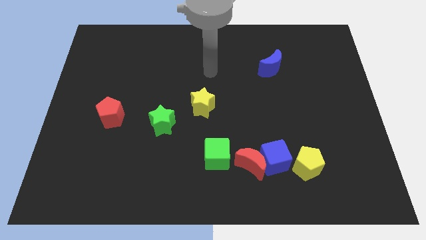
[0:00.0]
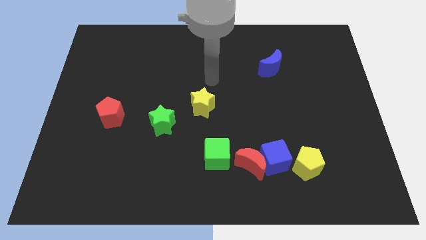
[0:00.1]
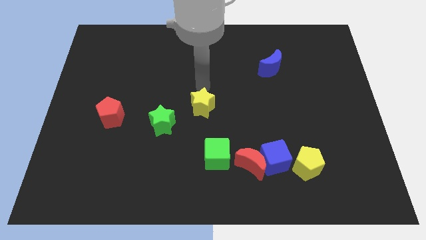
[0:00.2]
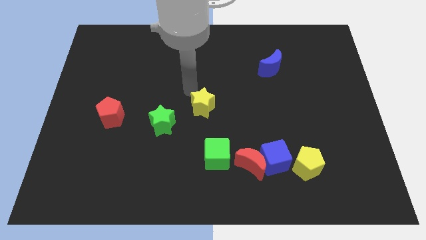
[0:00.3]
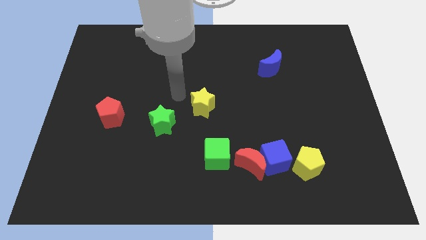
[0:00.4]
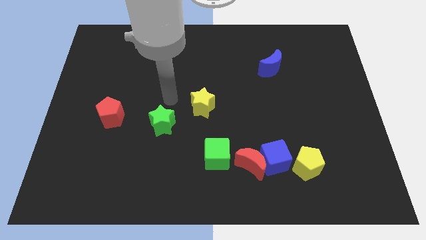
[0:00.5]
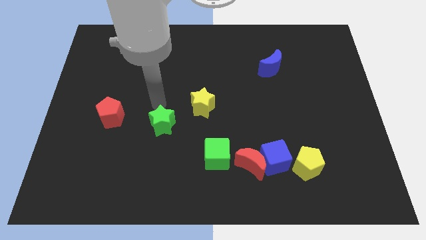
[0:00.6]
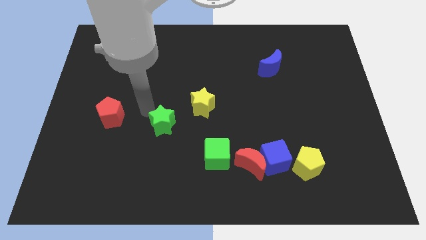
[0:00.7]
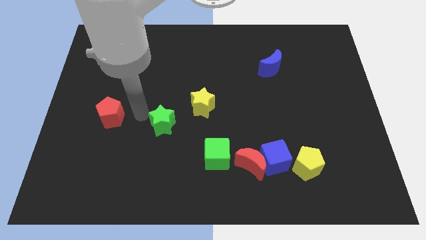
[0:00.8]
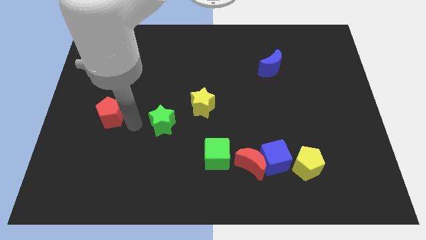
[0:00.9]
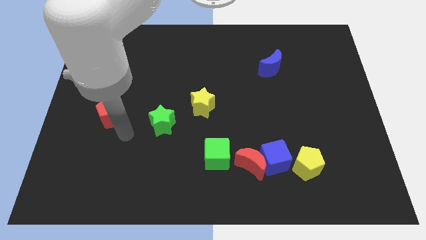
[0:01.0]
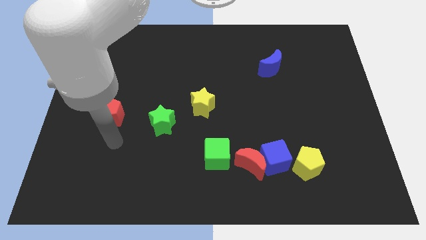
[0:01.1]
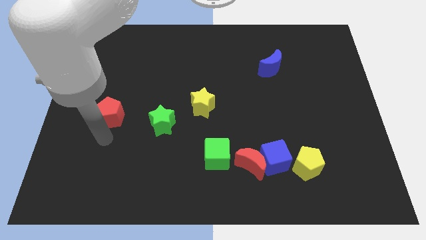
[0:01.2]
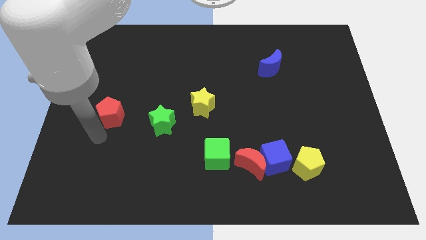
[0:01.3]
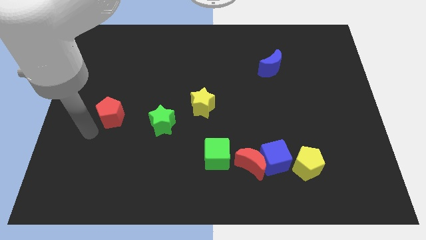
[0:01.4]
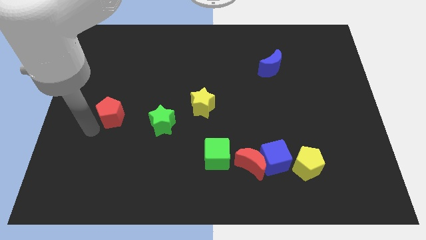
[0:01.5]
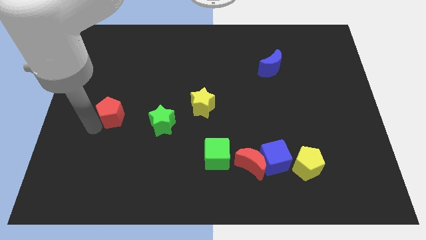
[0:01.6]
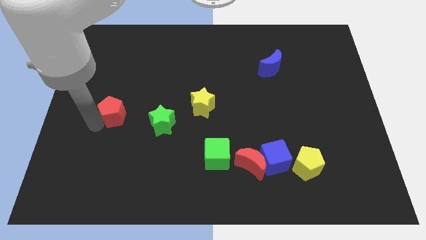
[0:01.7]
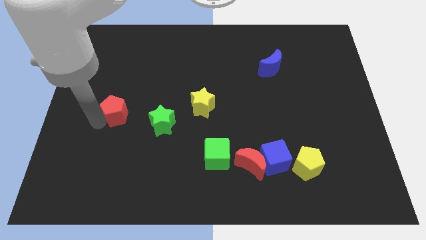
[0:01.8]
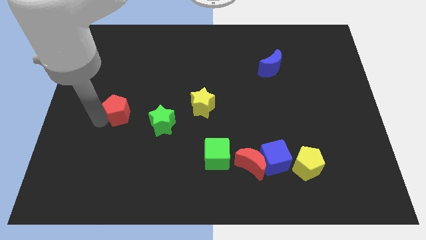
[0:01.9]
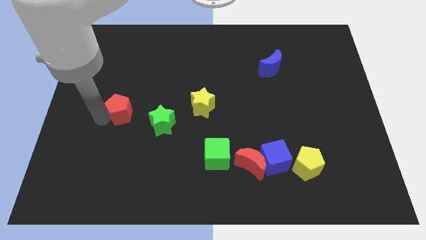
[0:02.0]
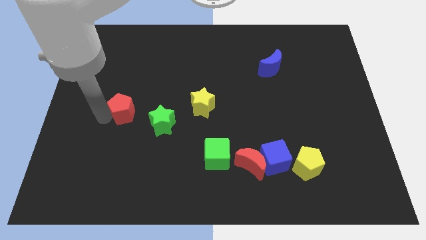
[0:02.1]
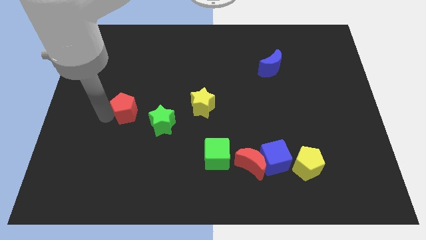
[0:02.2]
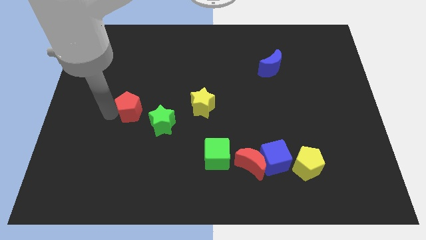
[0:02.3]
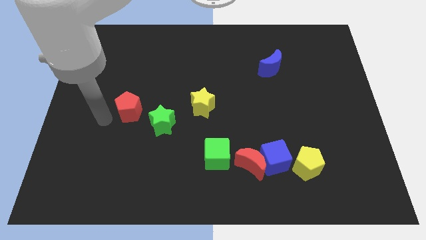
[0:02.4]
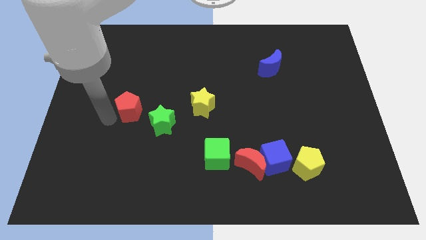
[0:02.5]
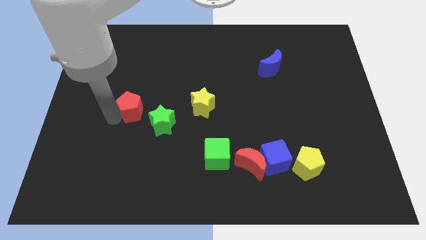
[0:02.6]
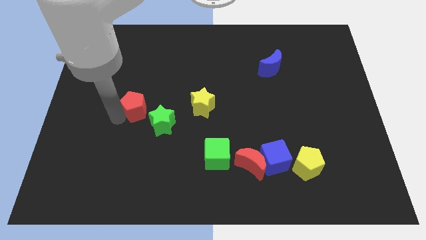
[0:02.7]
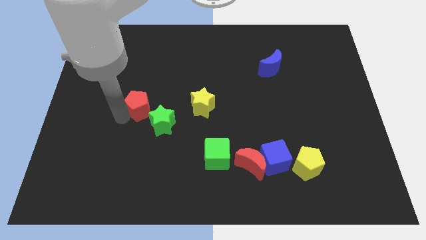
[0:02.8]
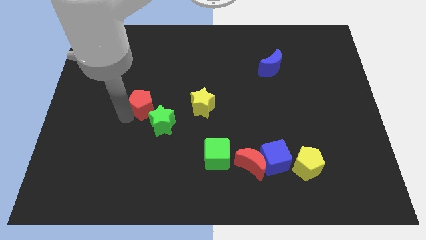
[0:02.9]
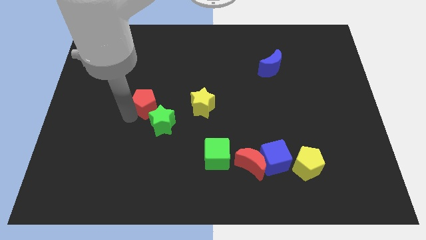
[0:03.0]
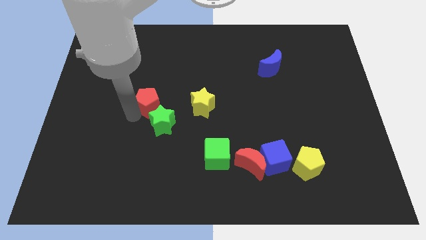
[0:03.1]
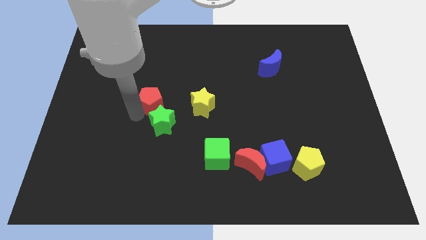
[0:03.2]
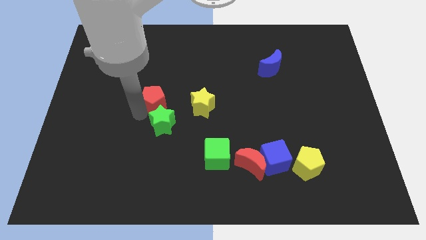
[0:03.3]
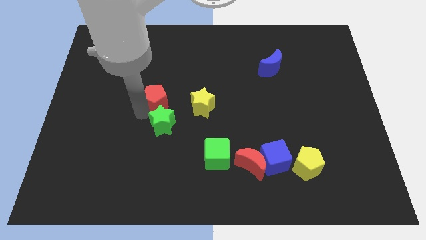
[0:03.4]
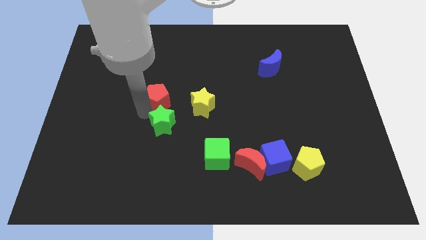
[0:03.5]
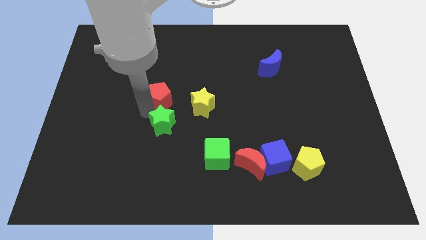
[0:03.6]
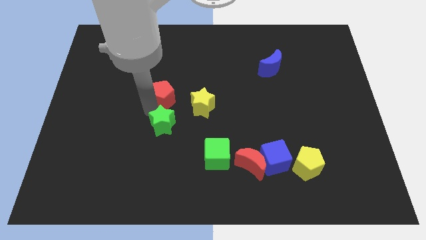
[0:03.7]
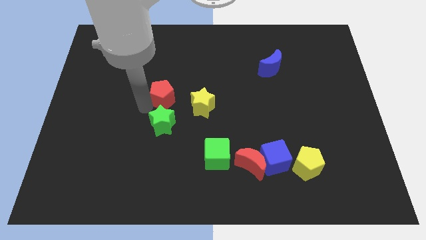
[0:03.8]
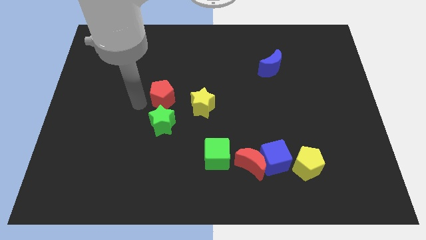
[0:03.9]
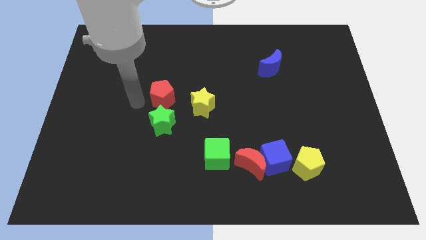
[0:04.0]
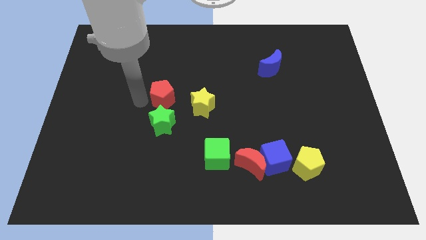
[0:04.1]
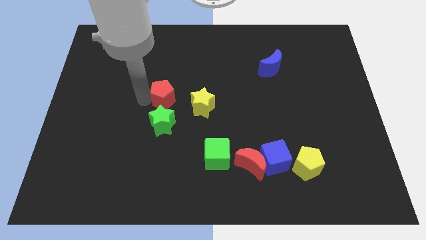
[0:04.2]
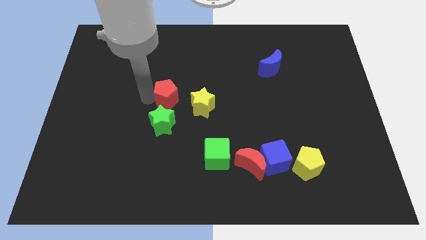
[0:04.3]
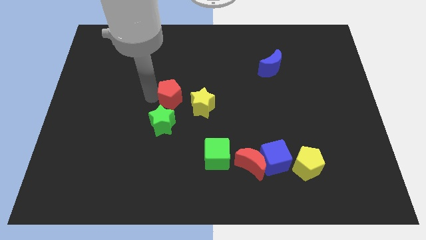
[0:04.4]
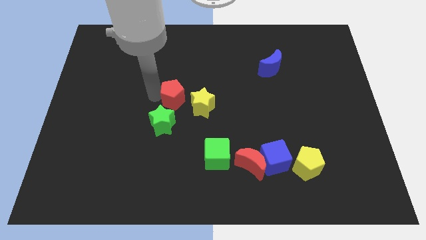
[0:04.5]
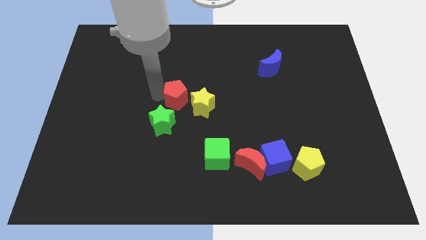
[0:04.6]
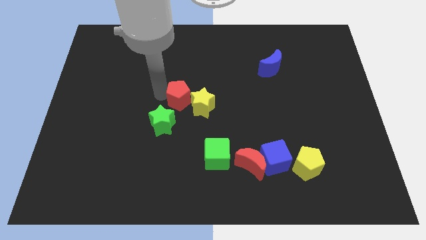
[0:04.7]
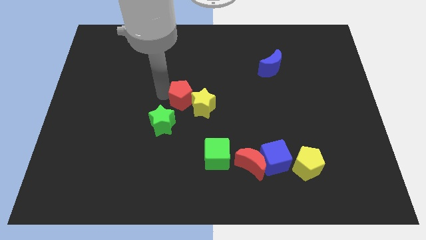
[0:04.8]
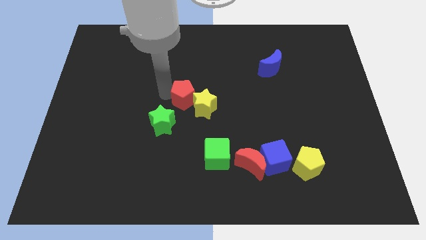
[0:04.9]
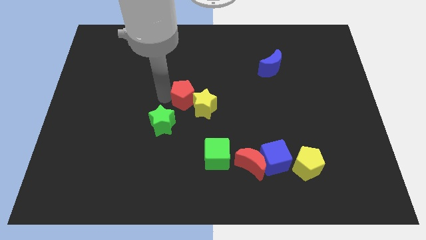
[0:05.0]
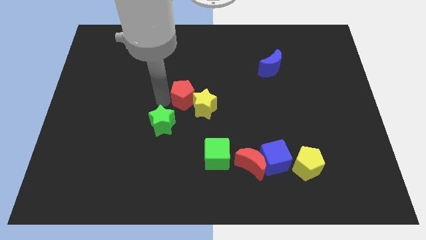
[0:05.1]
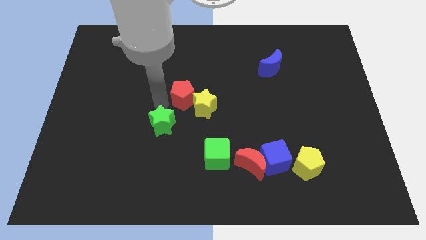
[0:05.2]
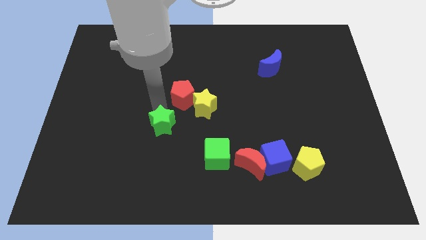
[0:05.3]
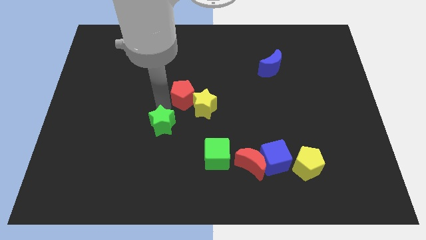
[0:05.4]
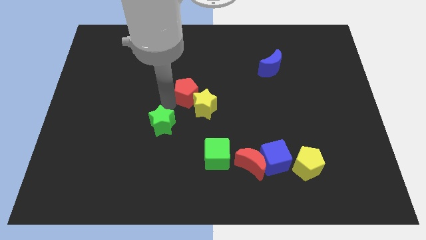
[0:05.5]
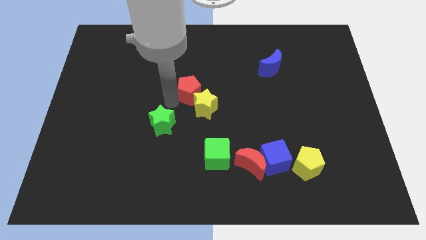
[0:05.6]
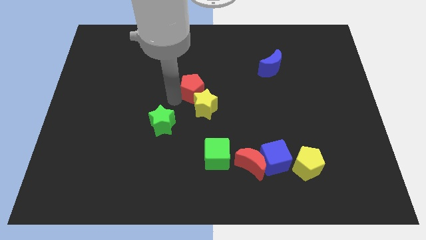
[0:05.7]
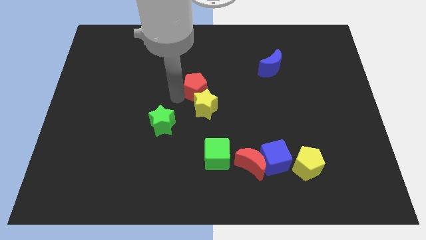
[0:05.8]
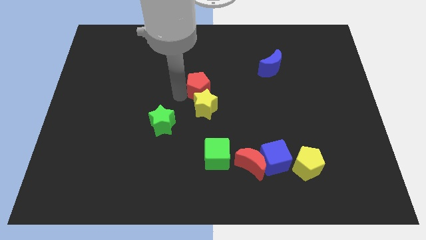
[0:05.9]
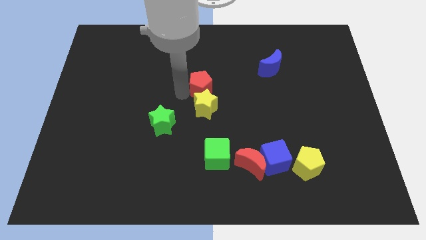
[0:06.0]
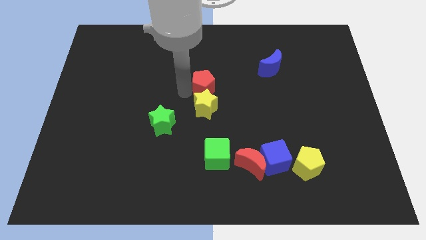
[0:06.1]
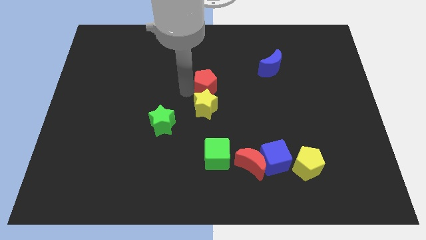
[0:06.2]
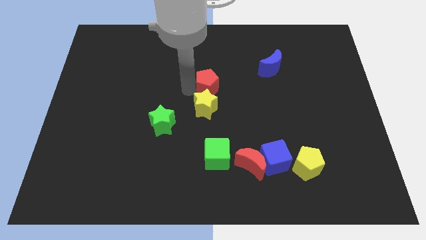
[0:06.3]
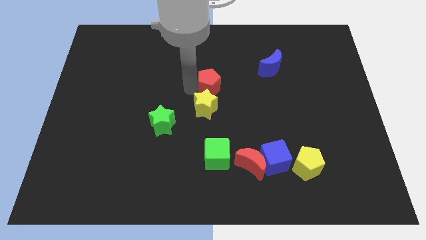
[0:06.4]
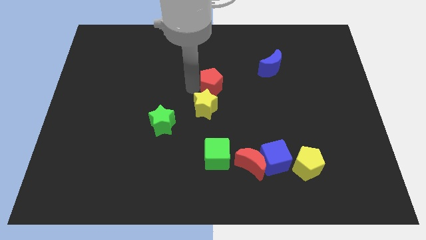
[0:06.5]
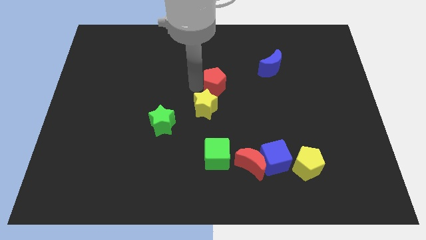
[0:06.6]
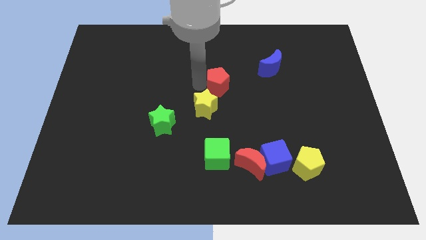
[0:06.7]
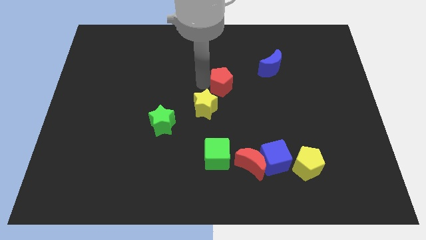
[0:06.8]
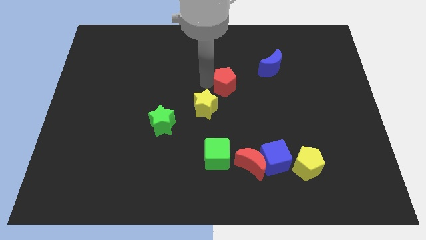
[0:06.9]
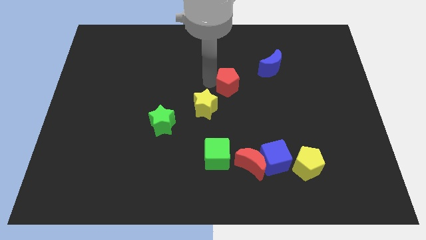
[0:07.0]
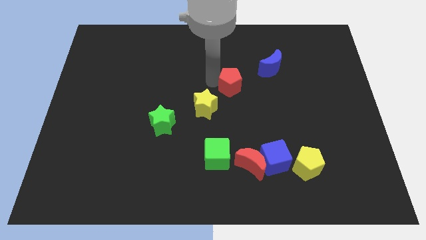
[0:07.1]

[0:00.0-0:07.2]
put the red pentagon to the bottom left side of the blue moon

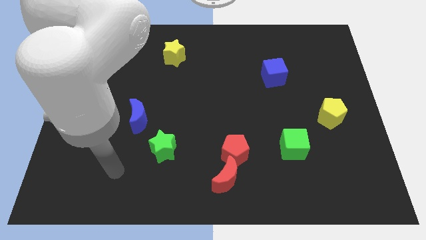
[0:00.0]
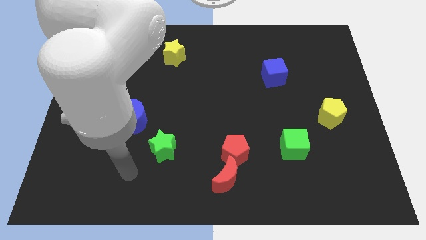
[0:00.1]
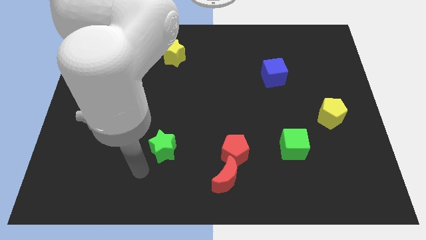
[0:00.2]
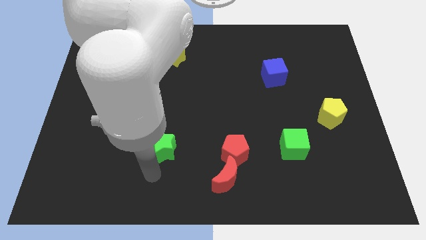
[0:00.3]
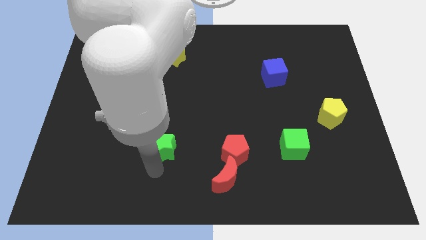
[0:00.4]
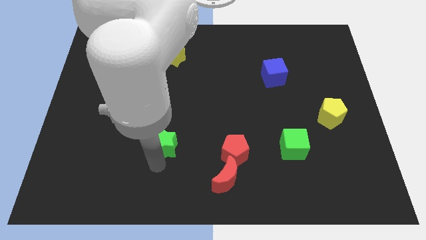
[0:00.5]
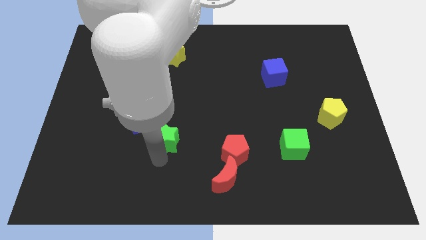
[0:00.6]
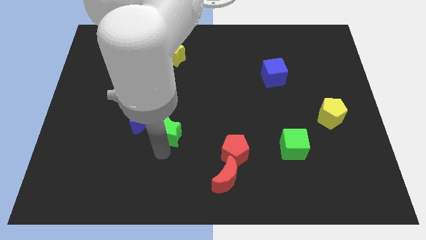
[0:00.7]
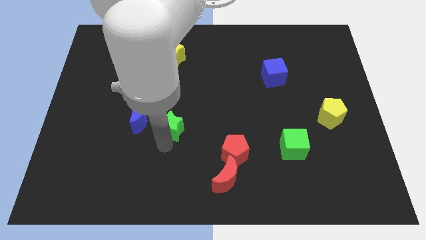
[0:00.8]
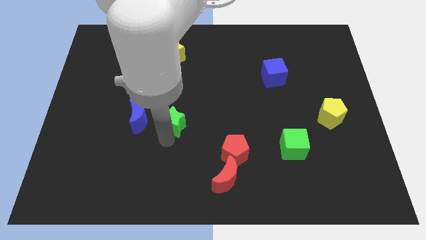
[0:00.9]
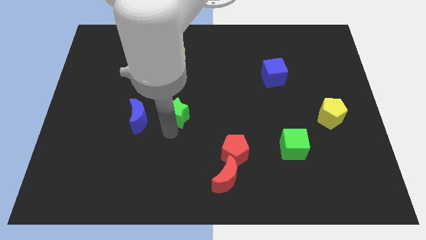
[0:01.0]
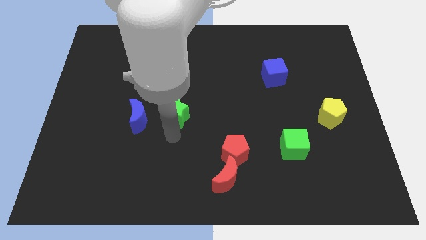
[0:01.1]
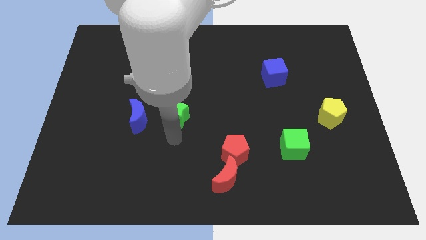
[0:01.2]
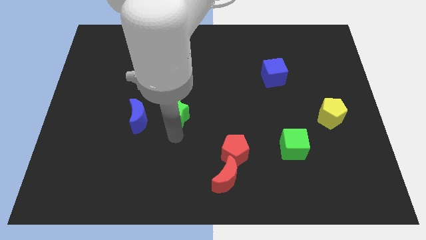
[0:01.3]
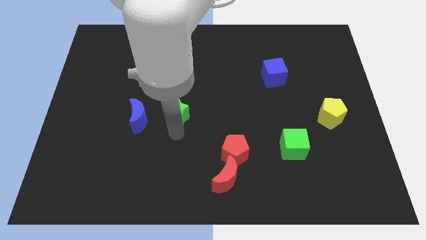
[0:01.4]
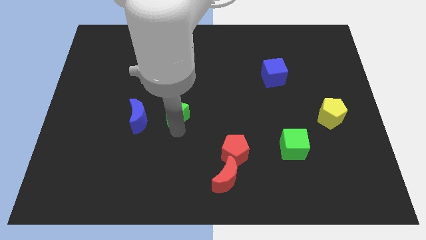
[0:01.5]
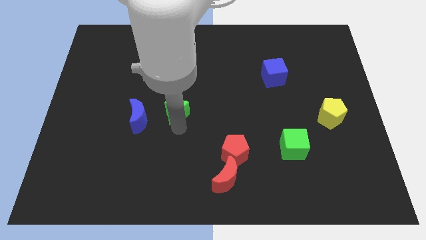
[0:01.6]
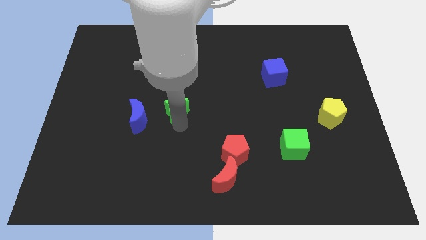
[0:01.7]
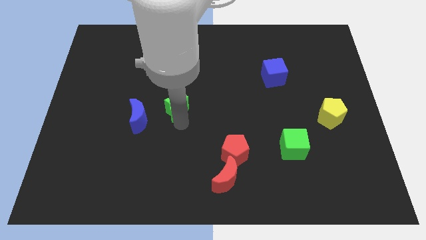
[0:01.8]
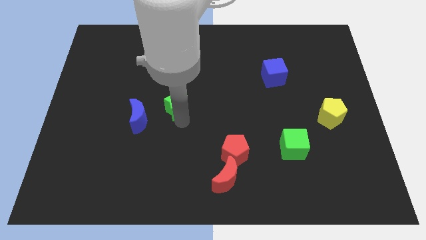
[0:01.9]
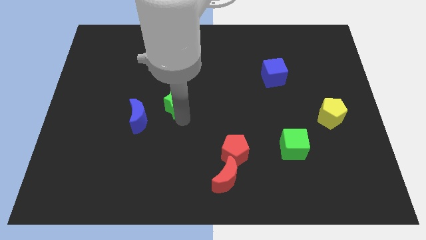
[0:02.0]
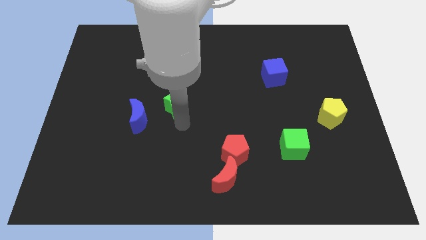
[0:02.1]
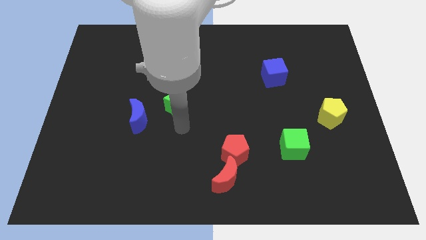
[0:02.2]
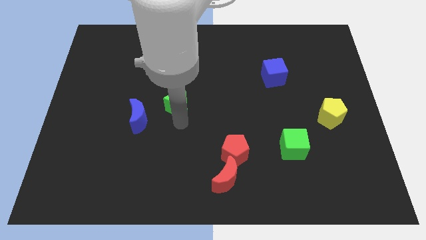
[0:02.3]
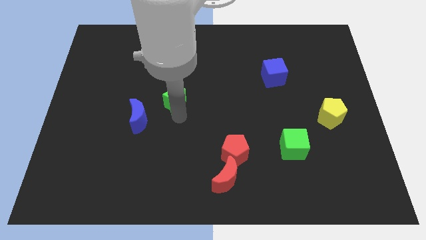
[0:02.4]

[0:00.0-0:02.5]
slide the green star to the bottom side of the yellow star
